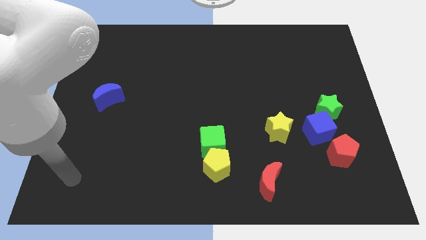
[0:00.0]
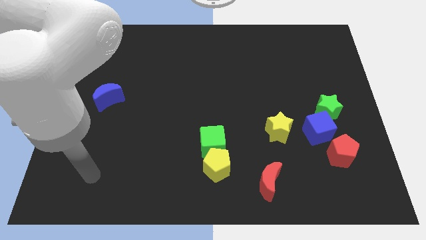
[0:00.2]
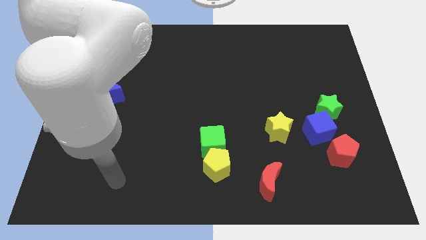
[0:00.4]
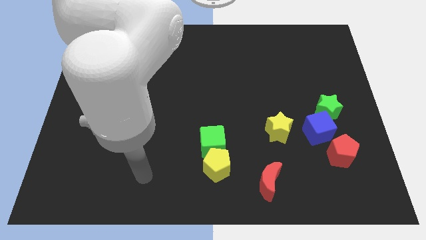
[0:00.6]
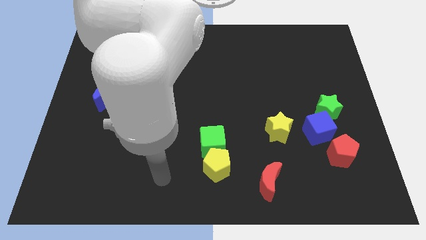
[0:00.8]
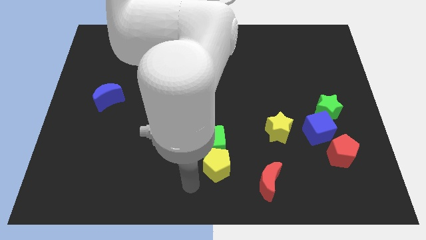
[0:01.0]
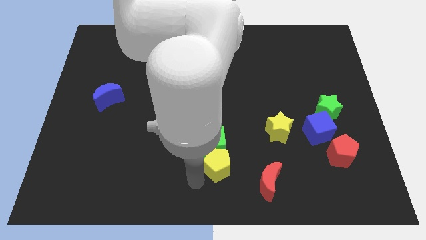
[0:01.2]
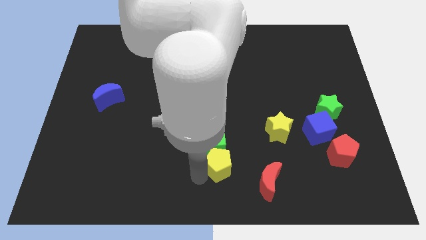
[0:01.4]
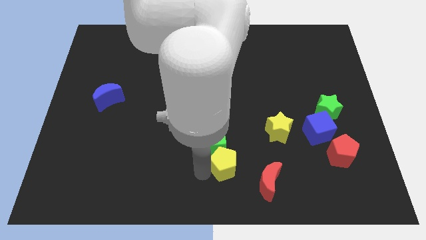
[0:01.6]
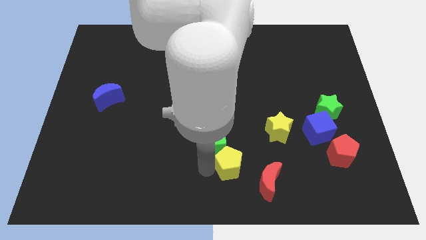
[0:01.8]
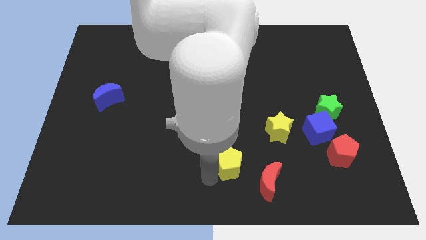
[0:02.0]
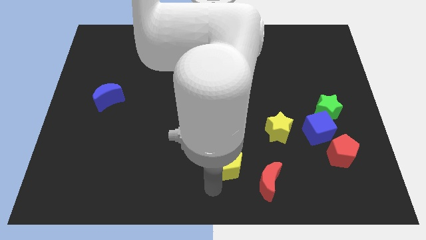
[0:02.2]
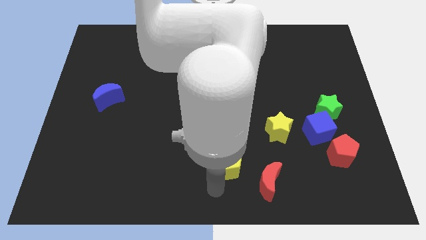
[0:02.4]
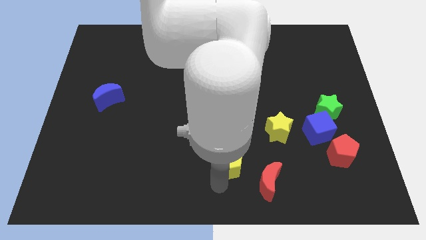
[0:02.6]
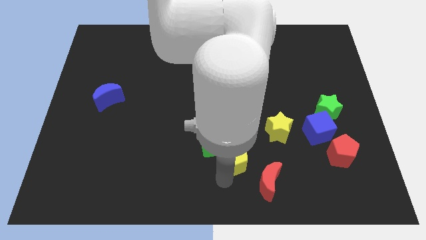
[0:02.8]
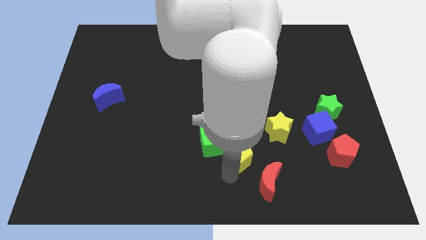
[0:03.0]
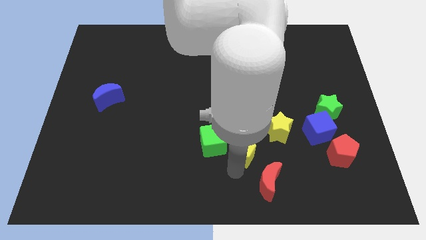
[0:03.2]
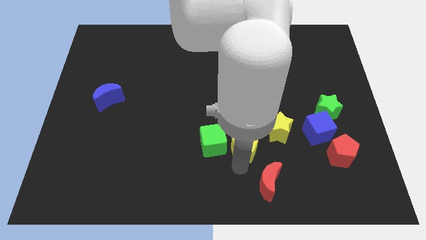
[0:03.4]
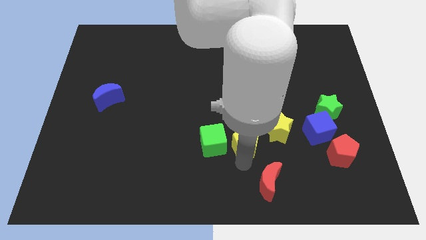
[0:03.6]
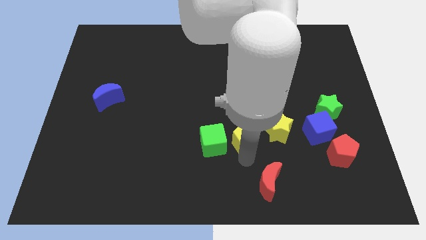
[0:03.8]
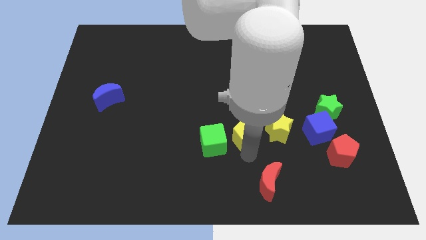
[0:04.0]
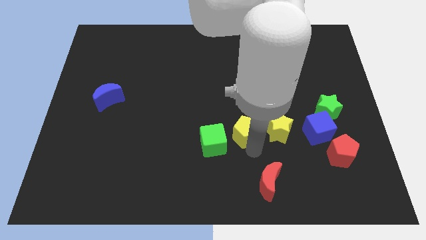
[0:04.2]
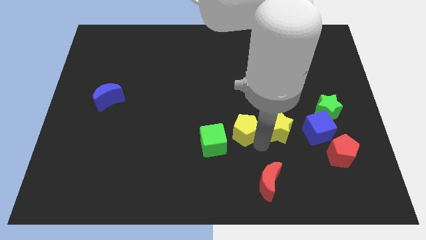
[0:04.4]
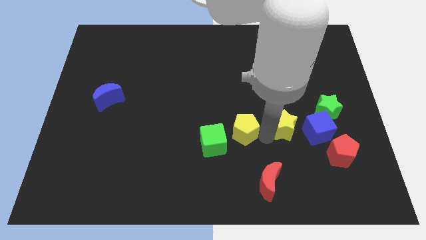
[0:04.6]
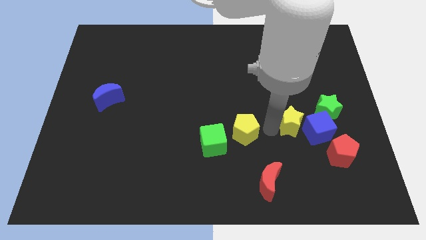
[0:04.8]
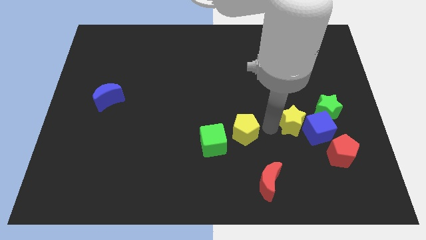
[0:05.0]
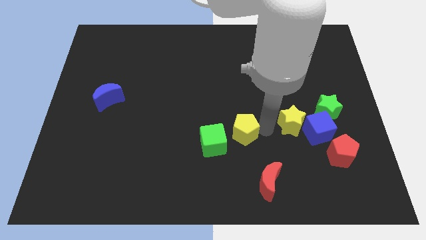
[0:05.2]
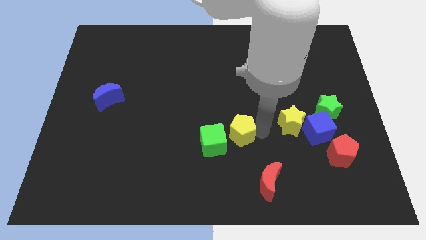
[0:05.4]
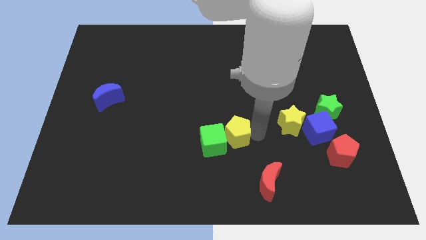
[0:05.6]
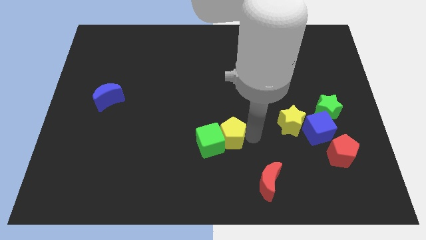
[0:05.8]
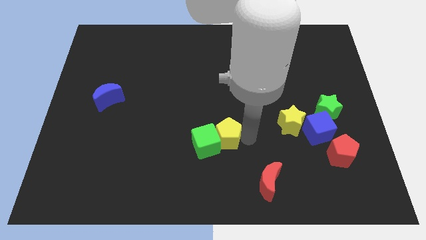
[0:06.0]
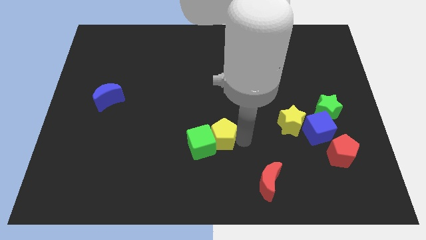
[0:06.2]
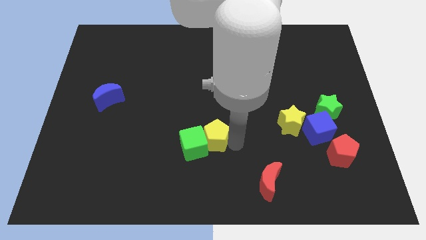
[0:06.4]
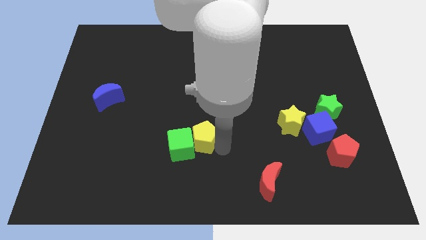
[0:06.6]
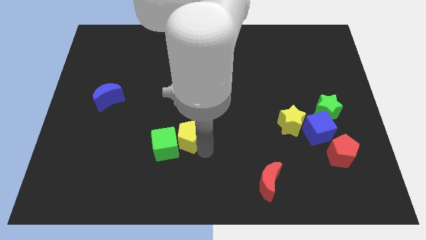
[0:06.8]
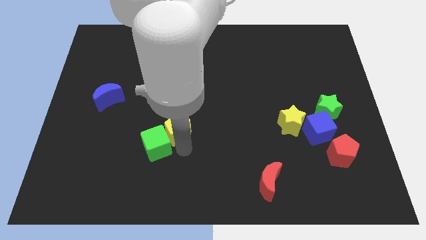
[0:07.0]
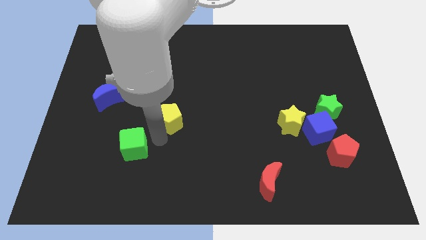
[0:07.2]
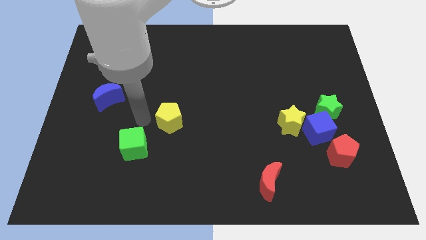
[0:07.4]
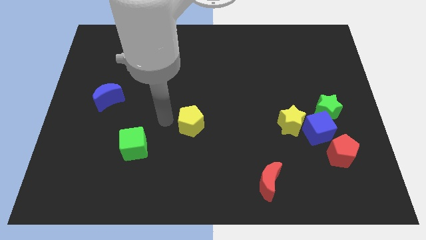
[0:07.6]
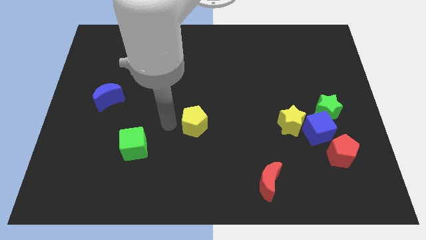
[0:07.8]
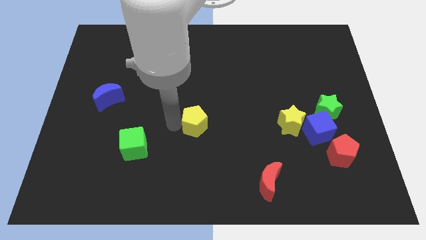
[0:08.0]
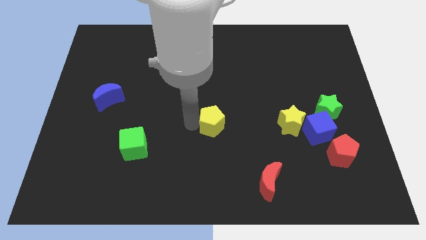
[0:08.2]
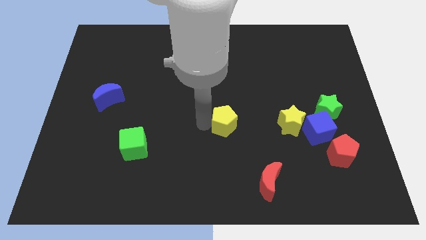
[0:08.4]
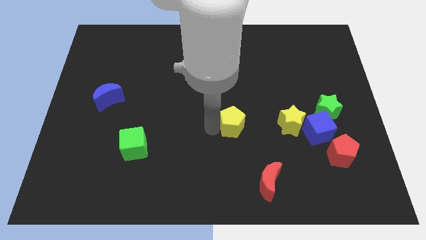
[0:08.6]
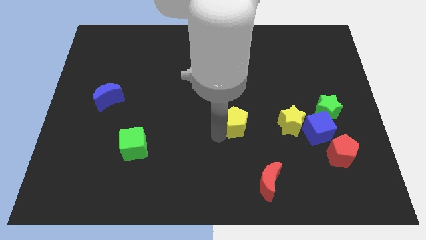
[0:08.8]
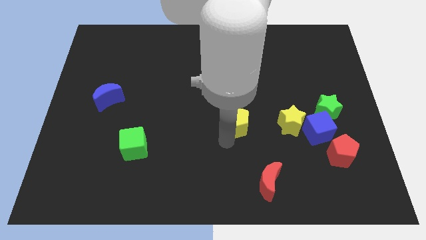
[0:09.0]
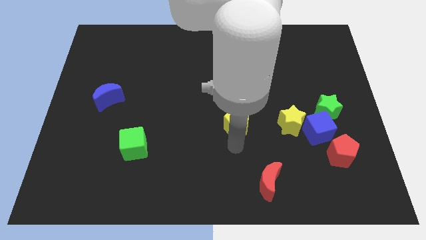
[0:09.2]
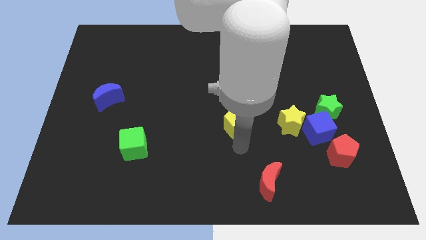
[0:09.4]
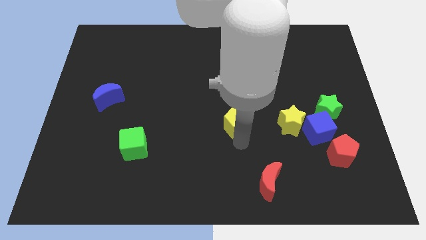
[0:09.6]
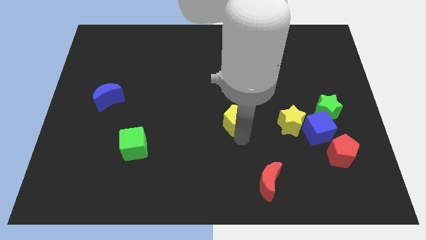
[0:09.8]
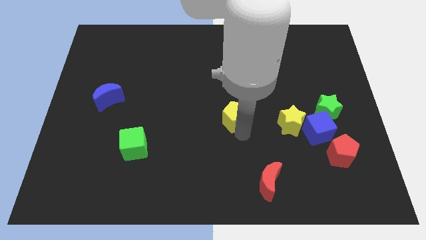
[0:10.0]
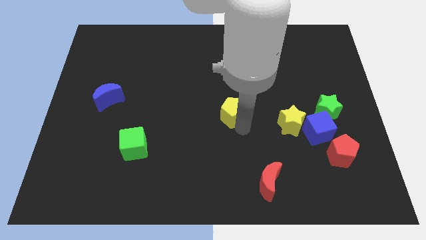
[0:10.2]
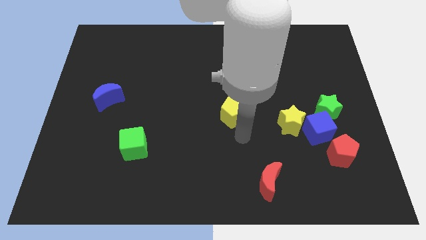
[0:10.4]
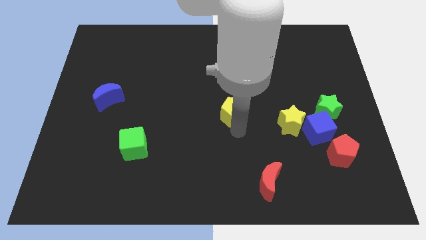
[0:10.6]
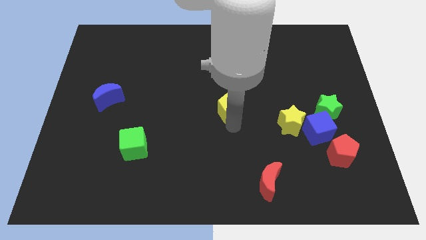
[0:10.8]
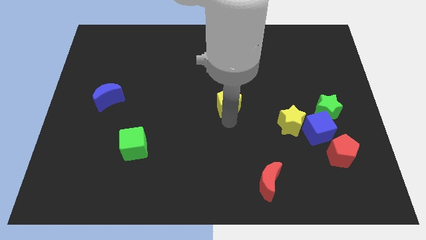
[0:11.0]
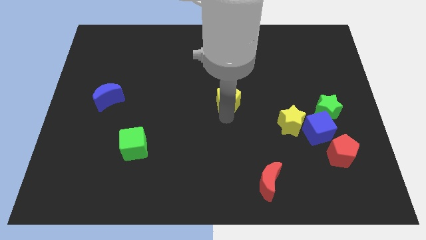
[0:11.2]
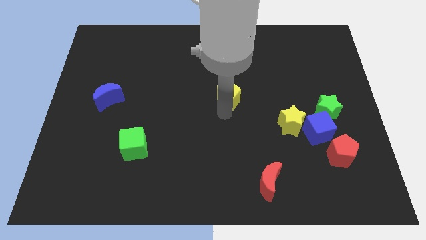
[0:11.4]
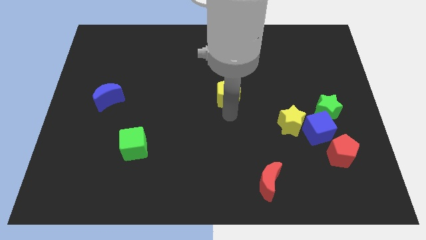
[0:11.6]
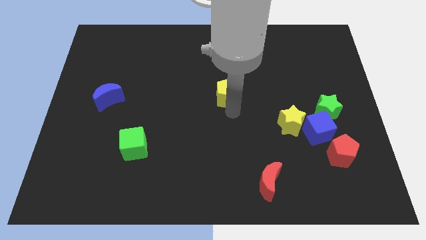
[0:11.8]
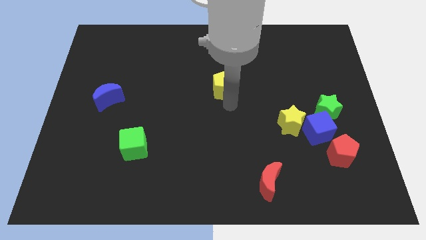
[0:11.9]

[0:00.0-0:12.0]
move the yellow pentagon up

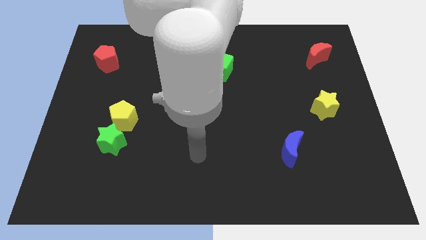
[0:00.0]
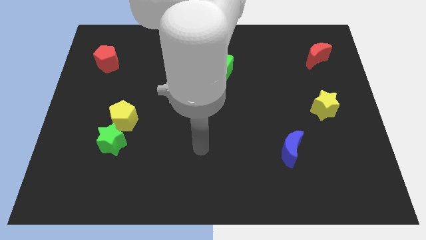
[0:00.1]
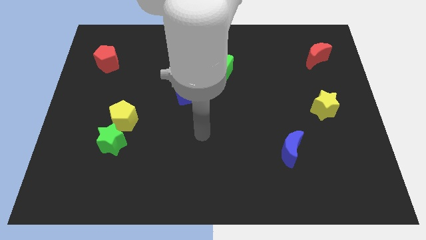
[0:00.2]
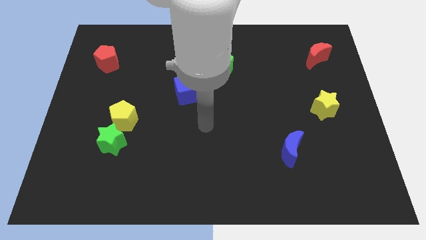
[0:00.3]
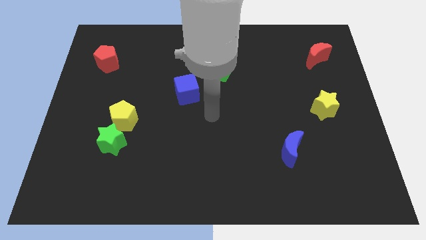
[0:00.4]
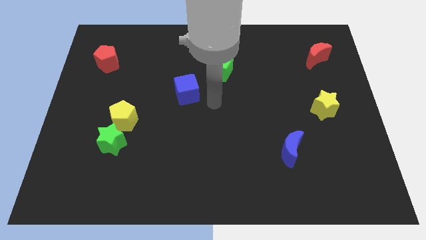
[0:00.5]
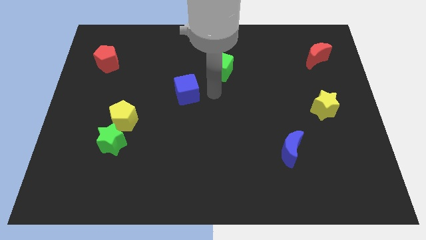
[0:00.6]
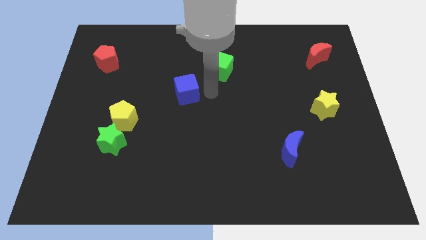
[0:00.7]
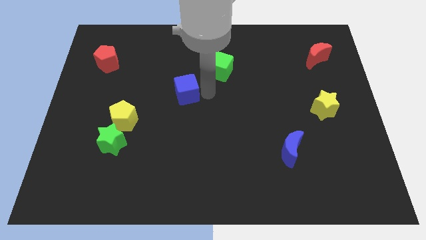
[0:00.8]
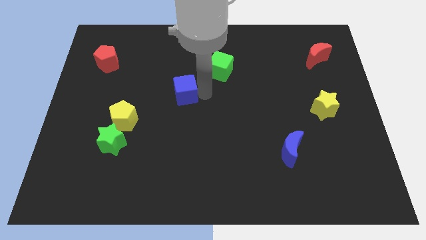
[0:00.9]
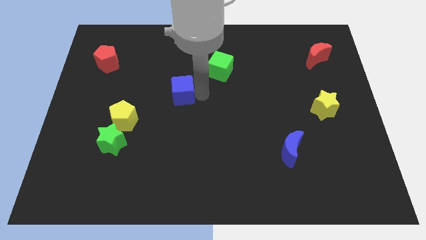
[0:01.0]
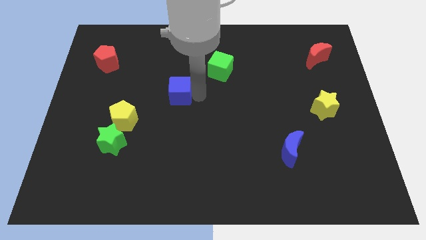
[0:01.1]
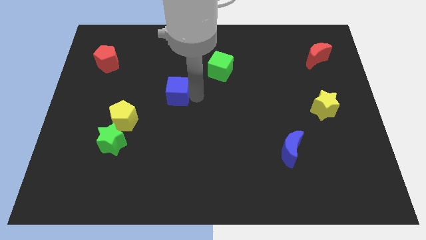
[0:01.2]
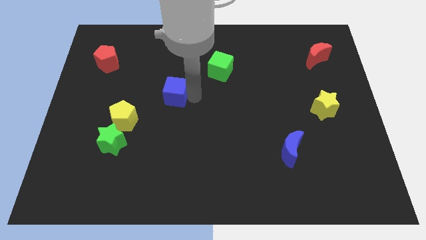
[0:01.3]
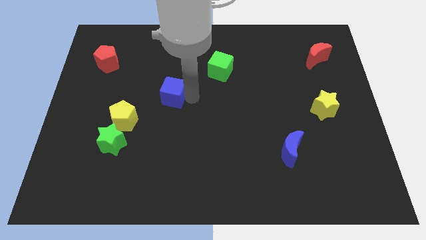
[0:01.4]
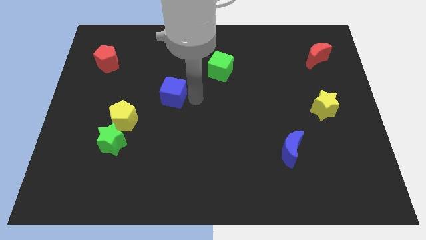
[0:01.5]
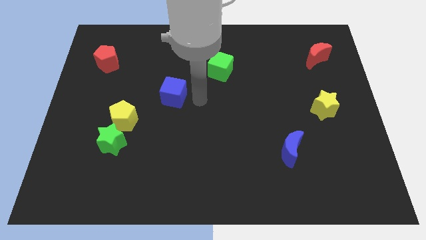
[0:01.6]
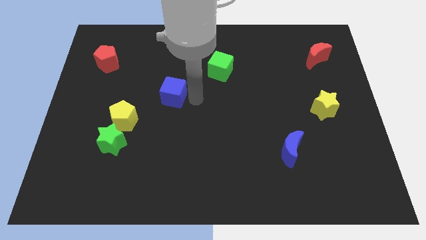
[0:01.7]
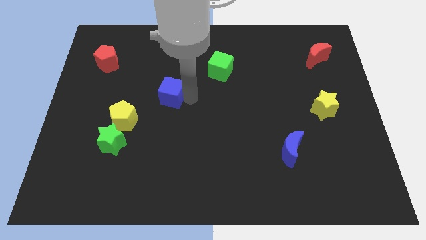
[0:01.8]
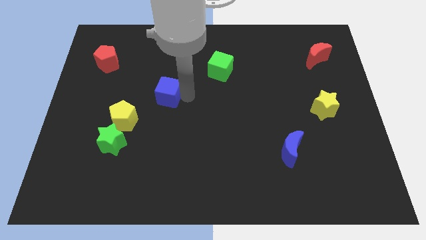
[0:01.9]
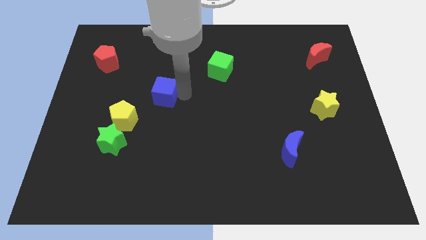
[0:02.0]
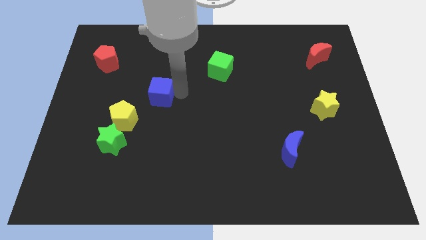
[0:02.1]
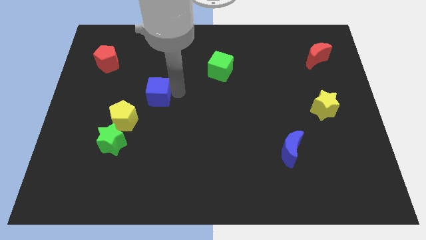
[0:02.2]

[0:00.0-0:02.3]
push the blue cube left a little
